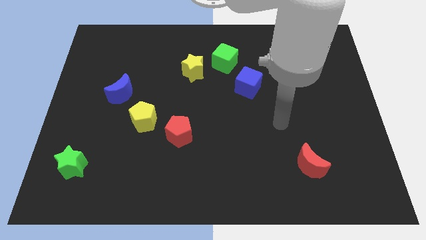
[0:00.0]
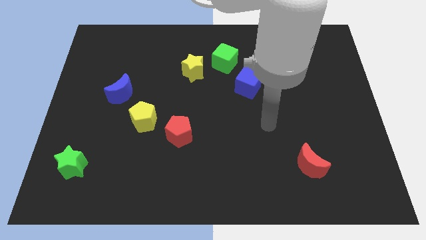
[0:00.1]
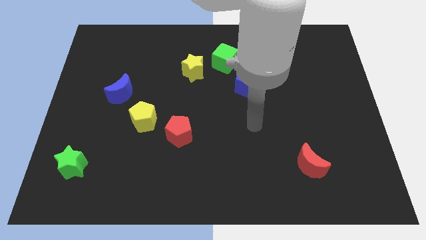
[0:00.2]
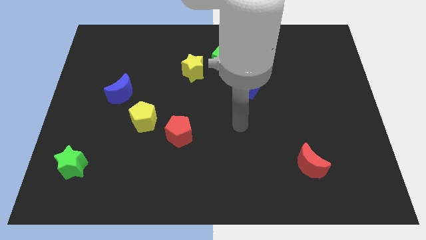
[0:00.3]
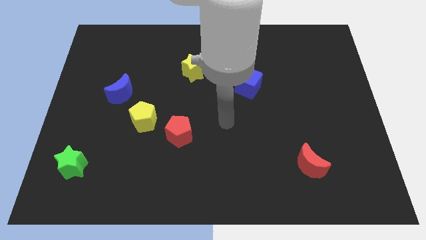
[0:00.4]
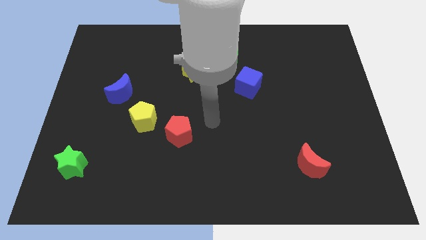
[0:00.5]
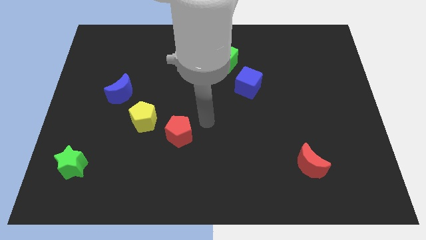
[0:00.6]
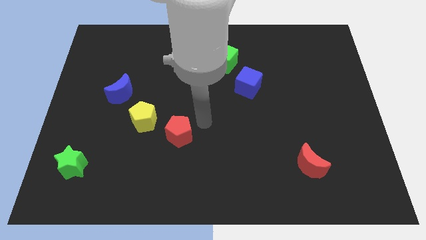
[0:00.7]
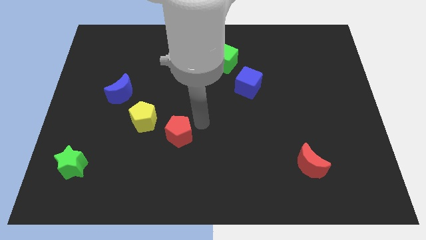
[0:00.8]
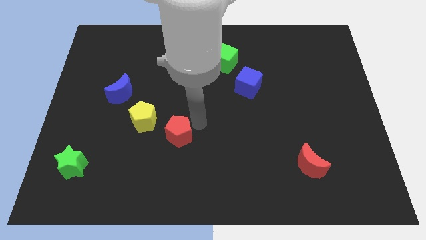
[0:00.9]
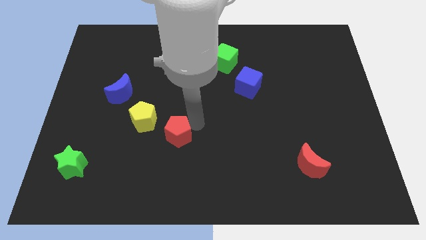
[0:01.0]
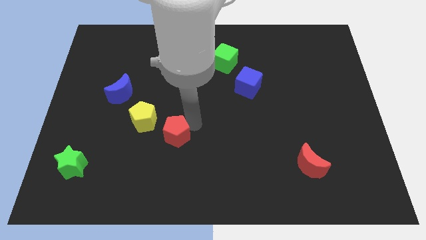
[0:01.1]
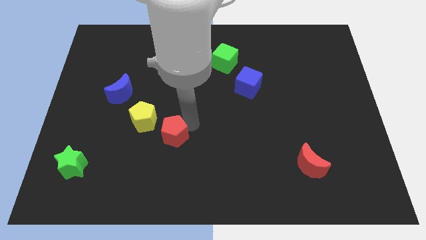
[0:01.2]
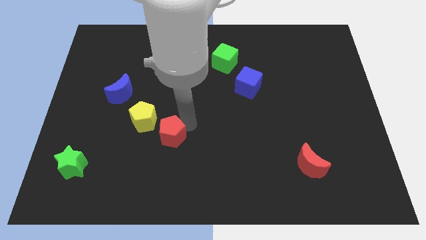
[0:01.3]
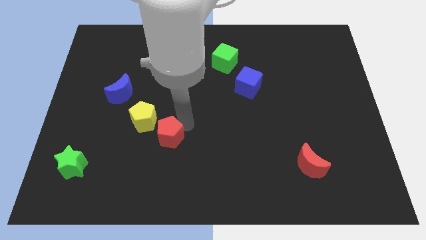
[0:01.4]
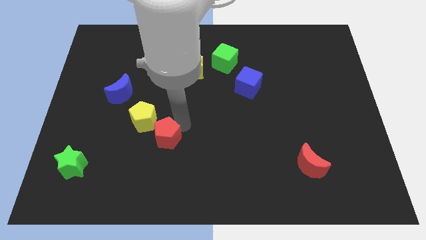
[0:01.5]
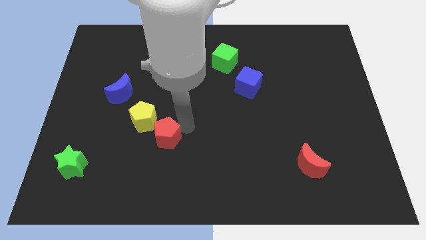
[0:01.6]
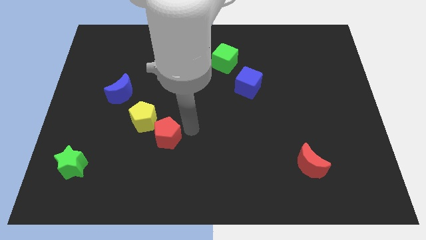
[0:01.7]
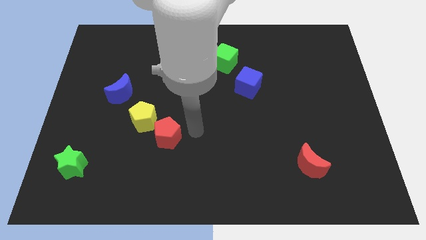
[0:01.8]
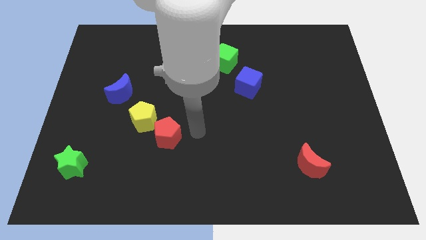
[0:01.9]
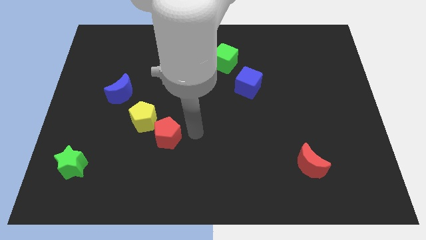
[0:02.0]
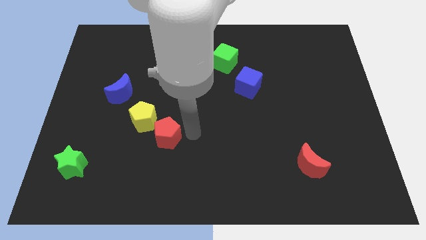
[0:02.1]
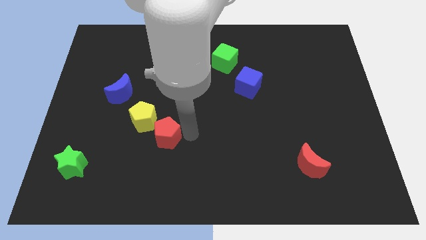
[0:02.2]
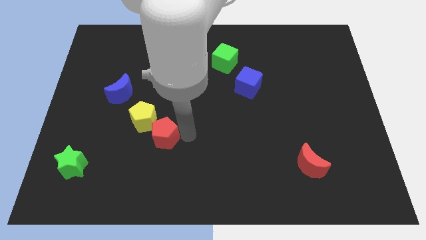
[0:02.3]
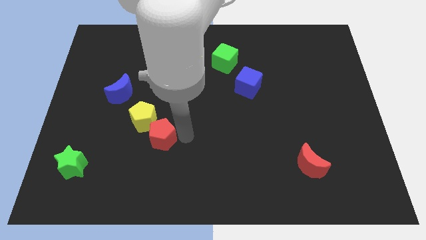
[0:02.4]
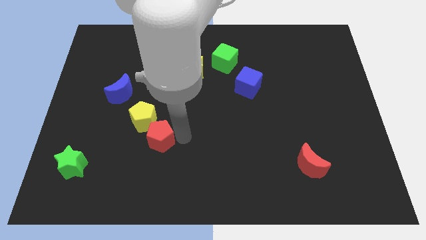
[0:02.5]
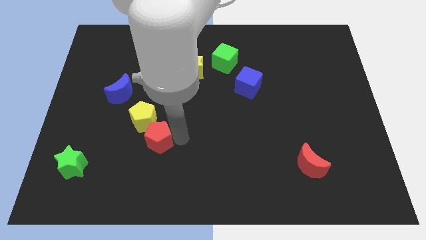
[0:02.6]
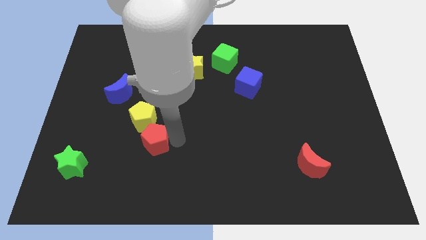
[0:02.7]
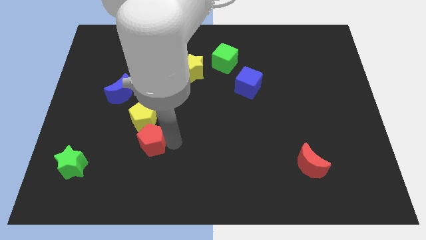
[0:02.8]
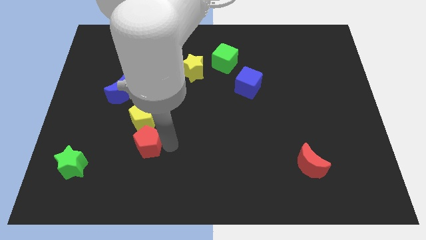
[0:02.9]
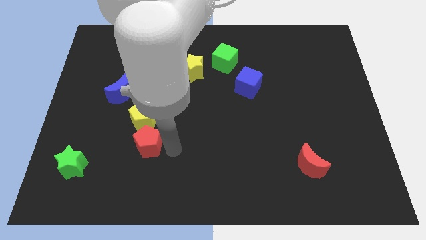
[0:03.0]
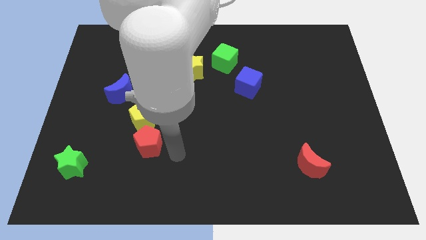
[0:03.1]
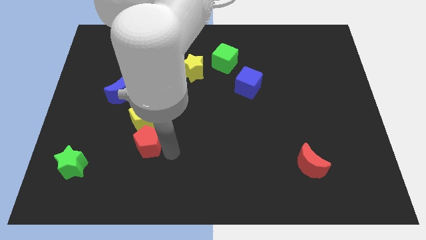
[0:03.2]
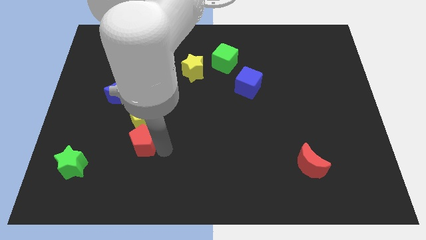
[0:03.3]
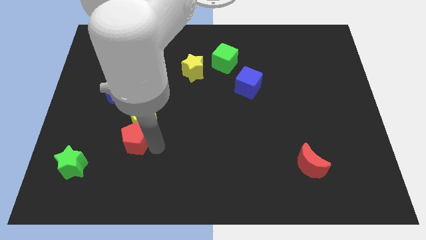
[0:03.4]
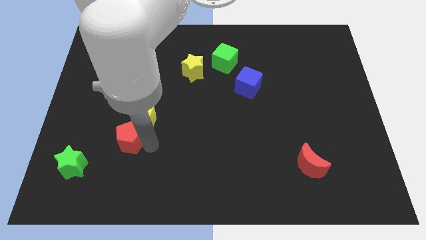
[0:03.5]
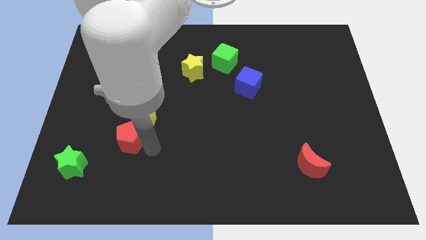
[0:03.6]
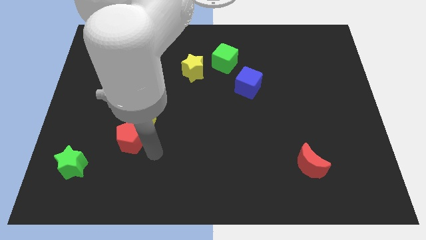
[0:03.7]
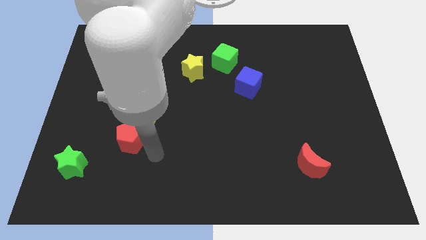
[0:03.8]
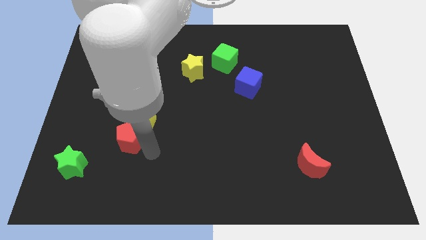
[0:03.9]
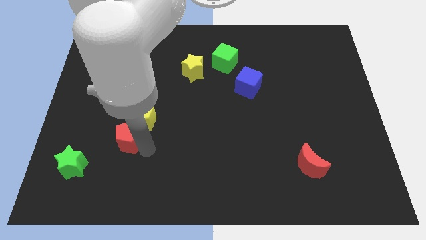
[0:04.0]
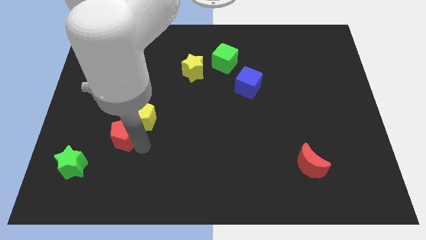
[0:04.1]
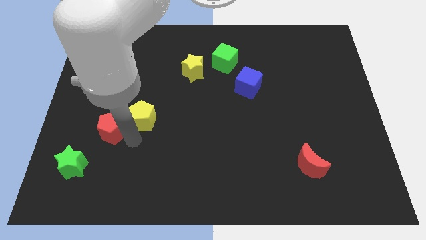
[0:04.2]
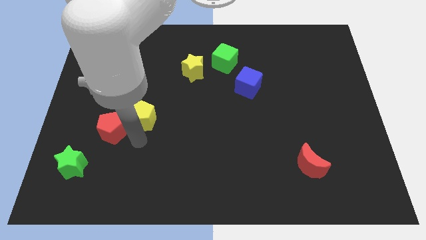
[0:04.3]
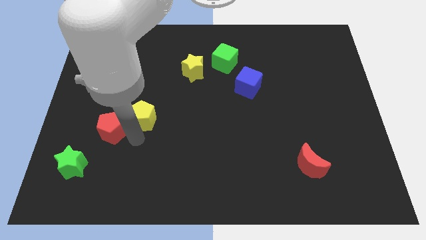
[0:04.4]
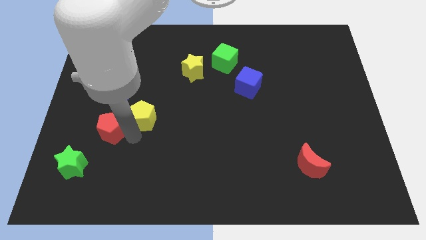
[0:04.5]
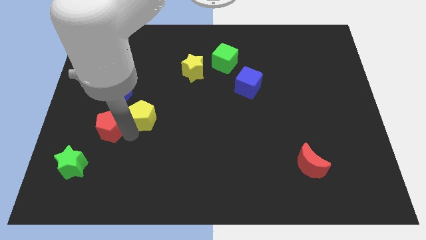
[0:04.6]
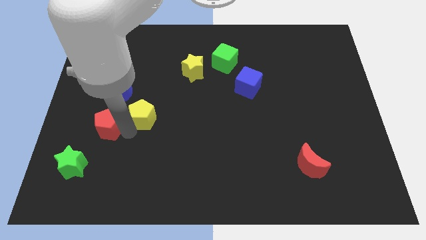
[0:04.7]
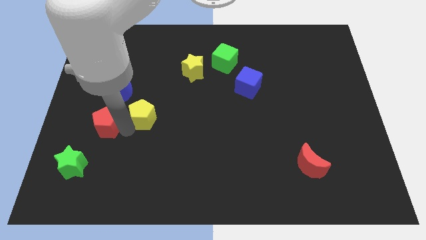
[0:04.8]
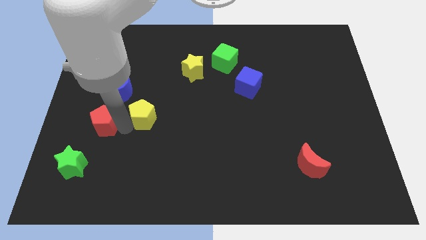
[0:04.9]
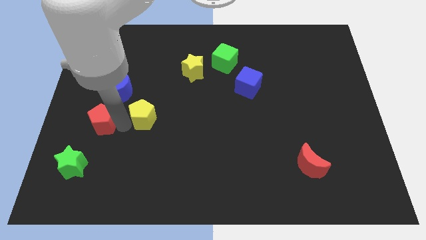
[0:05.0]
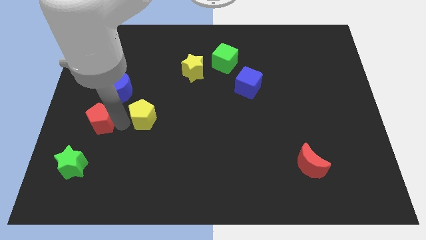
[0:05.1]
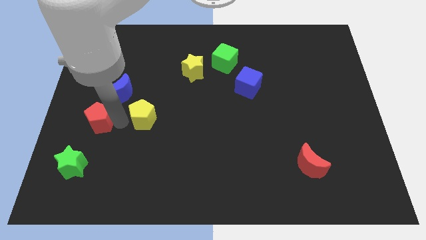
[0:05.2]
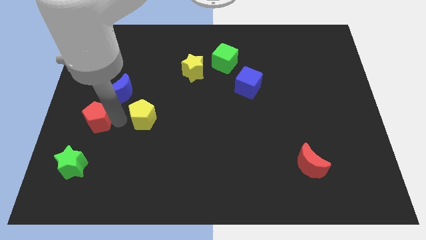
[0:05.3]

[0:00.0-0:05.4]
push the red pentagon to the left side

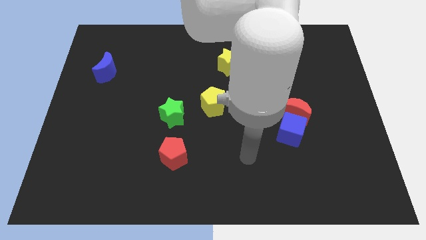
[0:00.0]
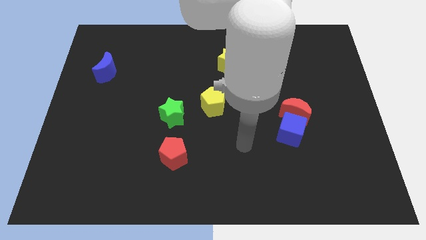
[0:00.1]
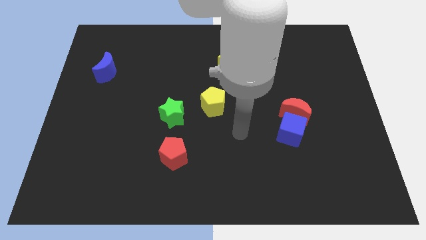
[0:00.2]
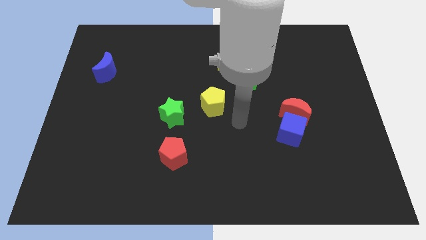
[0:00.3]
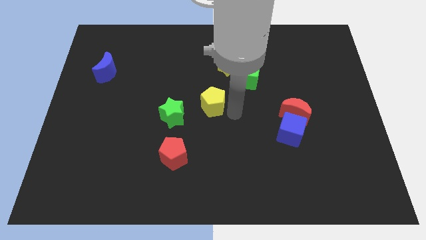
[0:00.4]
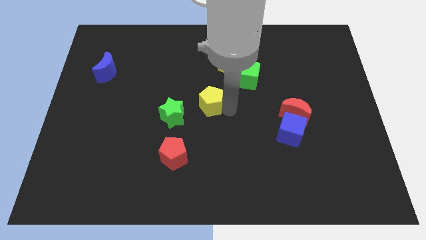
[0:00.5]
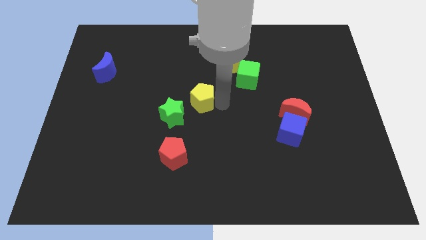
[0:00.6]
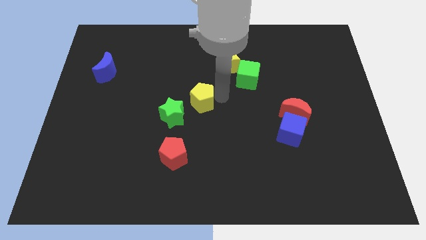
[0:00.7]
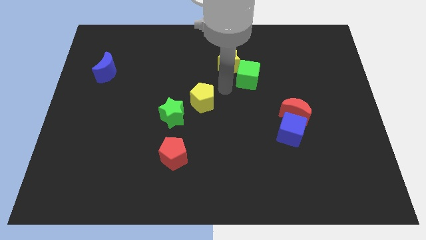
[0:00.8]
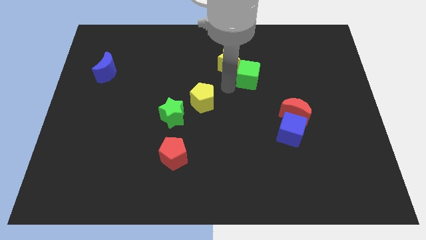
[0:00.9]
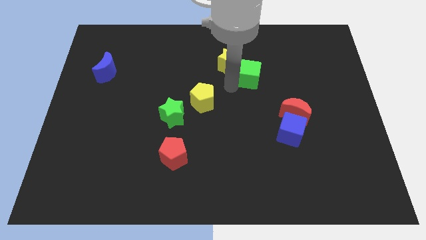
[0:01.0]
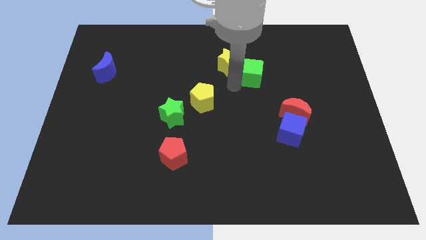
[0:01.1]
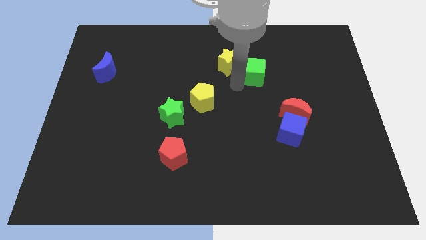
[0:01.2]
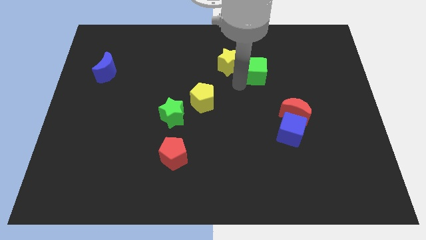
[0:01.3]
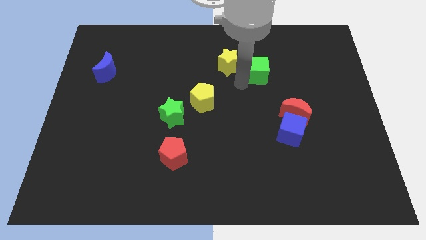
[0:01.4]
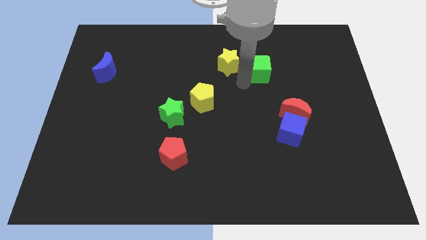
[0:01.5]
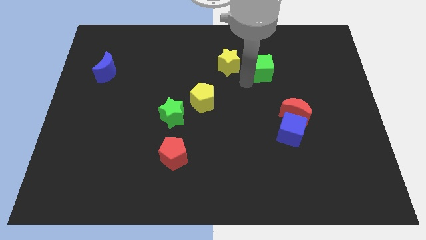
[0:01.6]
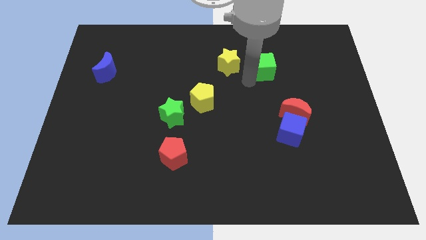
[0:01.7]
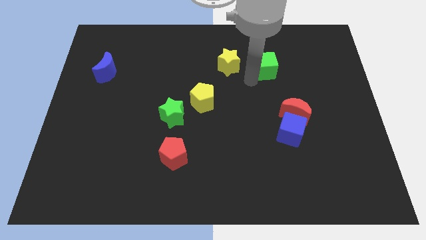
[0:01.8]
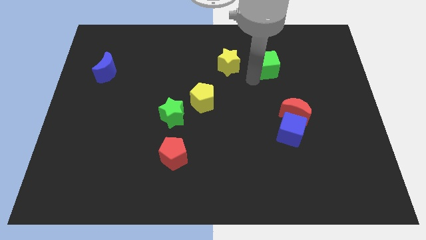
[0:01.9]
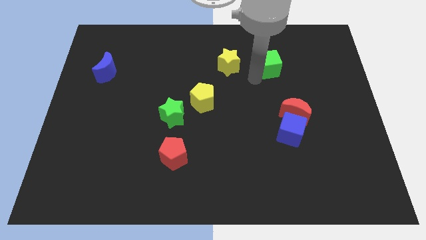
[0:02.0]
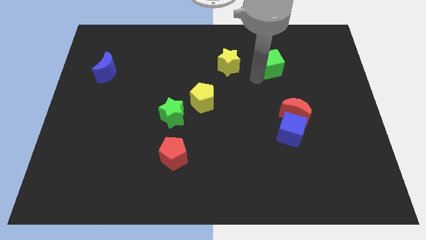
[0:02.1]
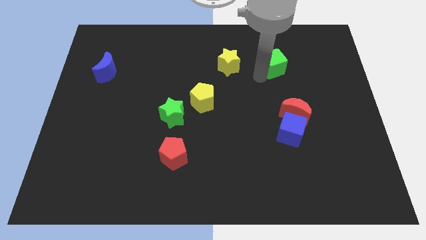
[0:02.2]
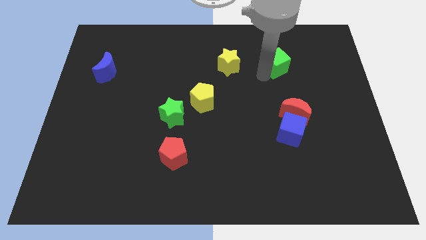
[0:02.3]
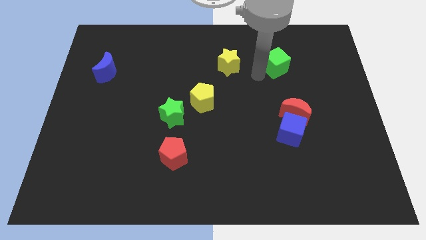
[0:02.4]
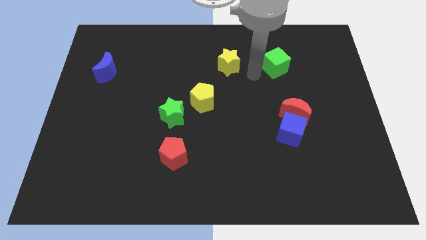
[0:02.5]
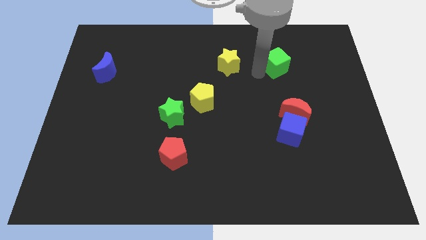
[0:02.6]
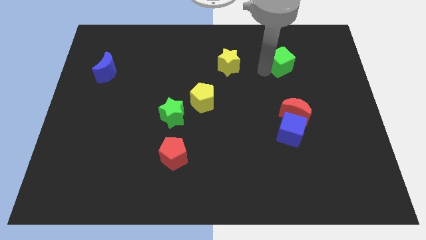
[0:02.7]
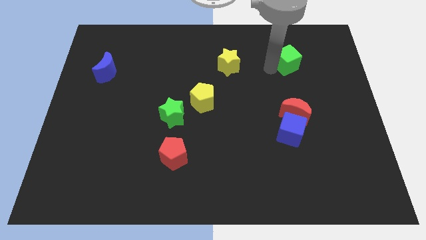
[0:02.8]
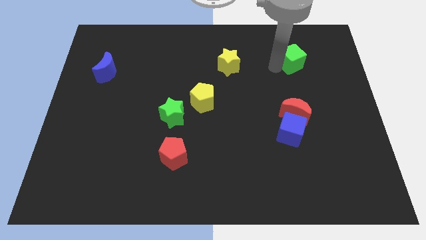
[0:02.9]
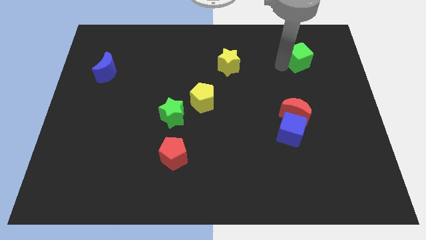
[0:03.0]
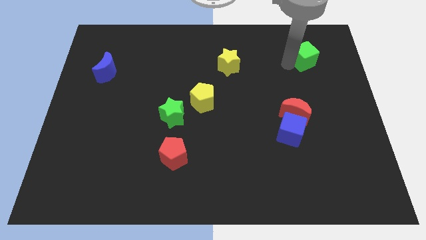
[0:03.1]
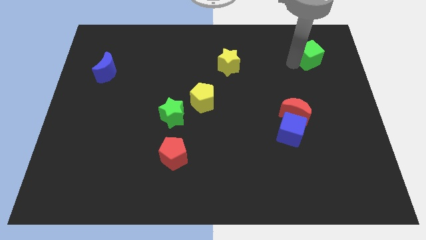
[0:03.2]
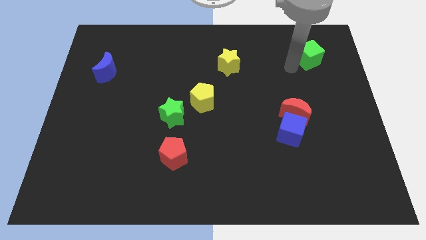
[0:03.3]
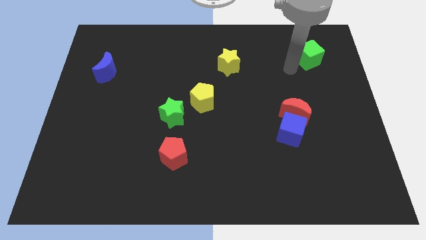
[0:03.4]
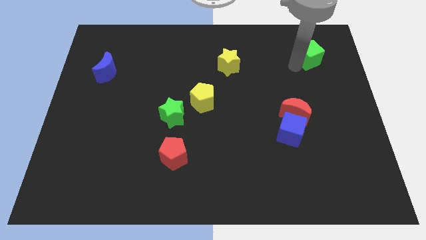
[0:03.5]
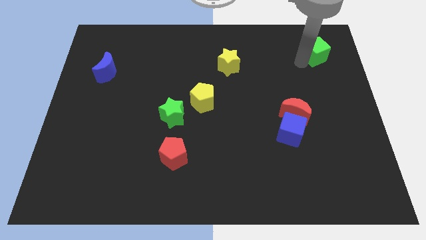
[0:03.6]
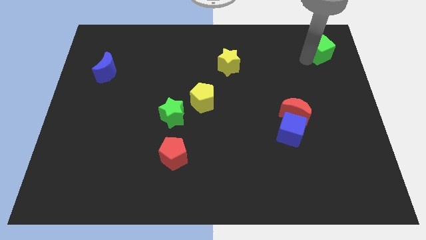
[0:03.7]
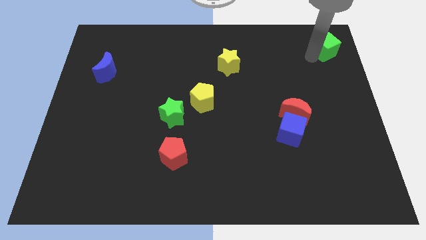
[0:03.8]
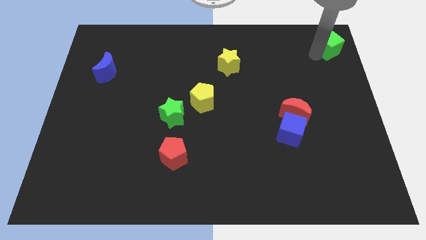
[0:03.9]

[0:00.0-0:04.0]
slide the green cube to the top right corner
